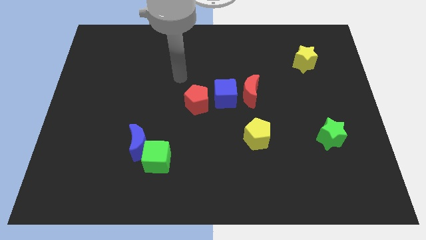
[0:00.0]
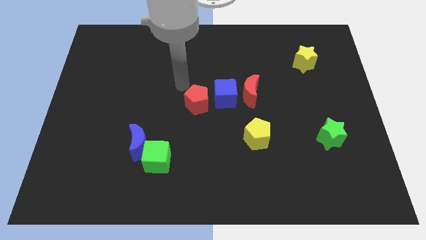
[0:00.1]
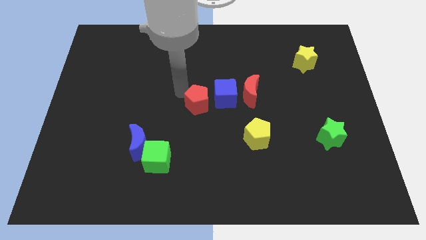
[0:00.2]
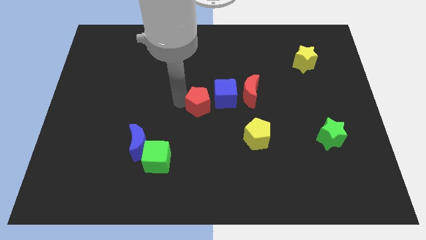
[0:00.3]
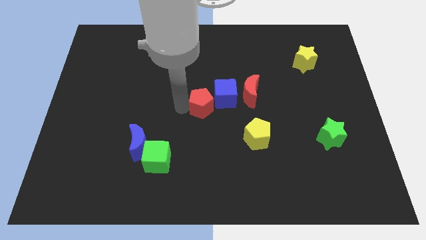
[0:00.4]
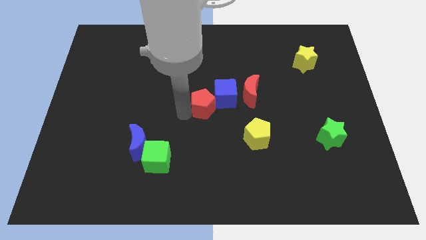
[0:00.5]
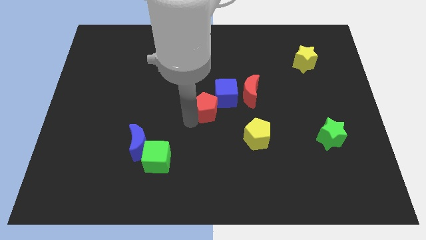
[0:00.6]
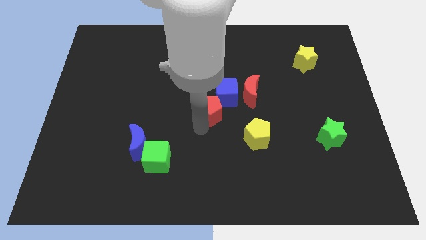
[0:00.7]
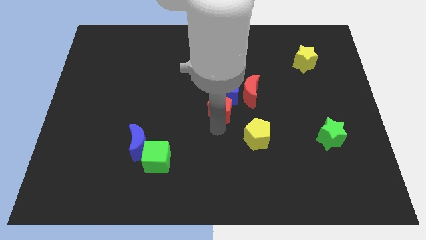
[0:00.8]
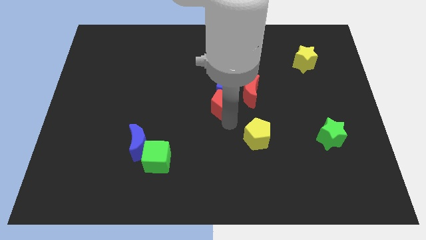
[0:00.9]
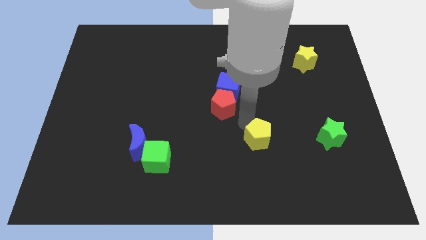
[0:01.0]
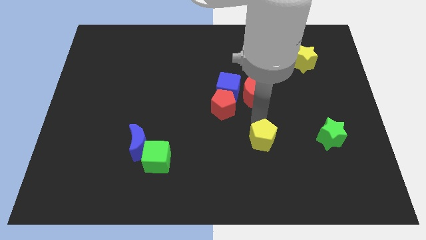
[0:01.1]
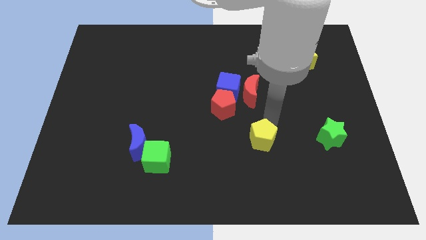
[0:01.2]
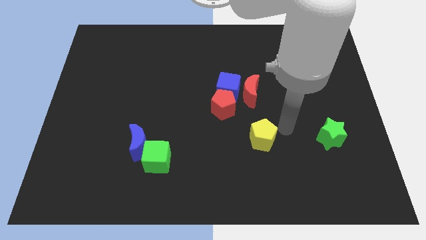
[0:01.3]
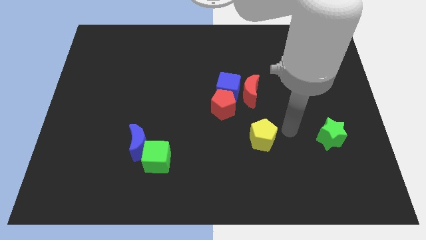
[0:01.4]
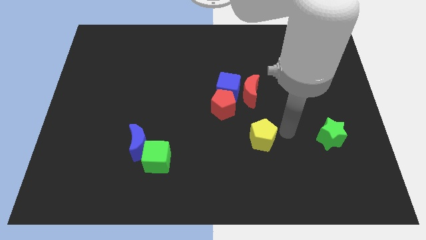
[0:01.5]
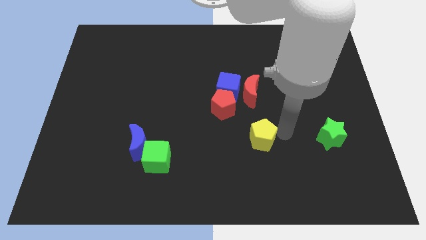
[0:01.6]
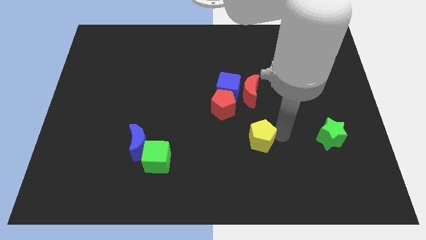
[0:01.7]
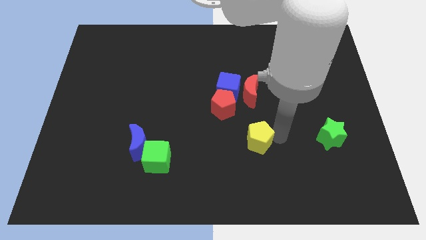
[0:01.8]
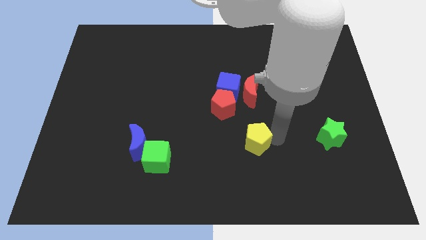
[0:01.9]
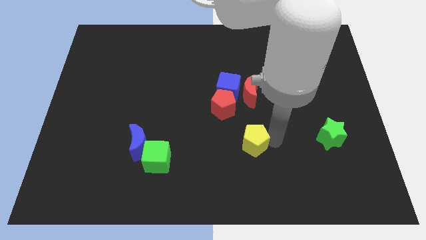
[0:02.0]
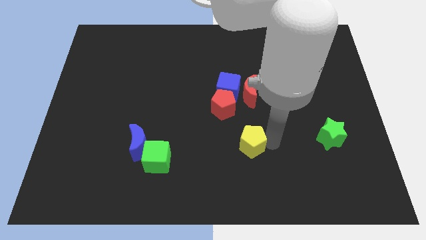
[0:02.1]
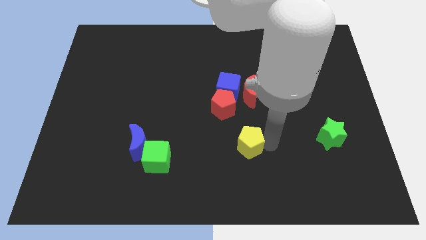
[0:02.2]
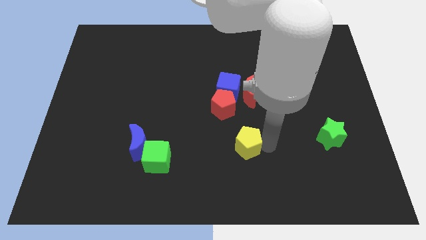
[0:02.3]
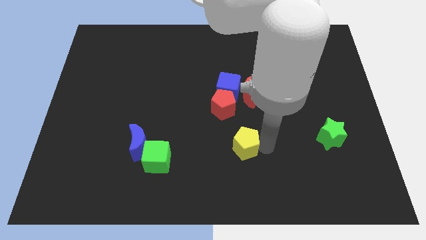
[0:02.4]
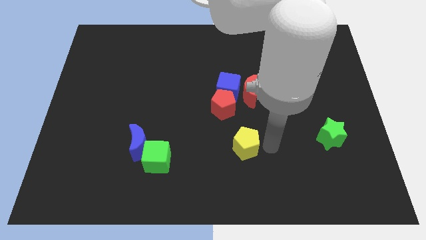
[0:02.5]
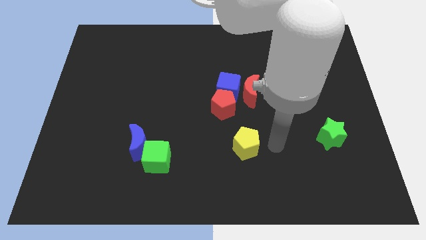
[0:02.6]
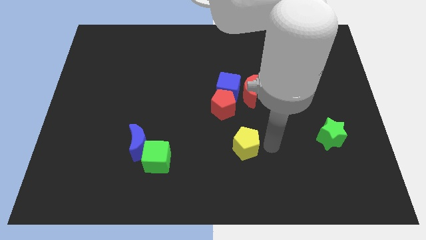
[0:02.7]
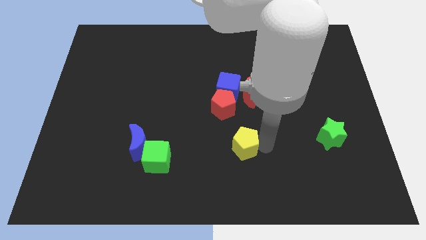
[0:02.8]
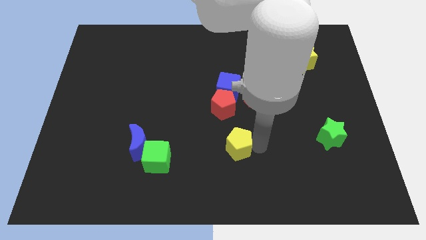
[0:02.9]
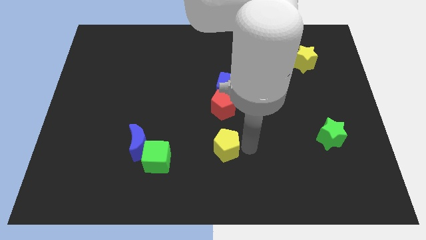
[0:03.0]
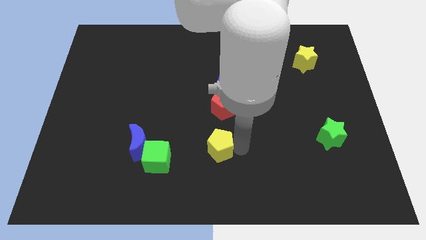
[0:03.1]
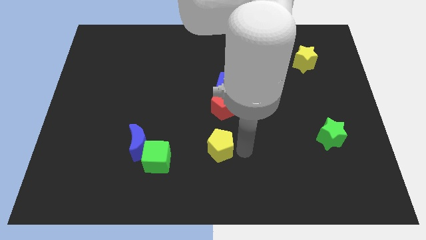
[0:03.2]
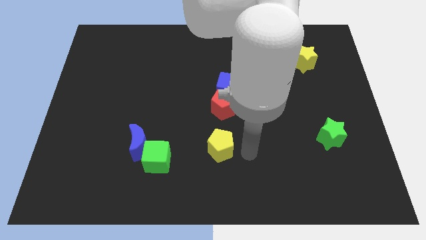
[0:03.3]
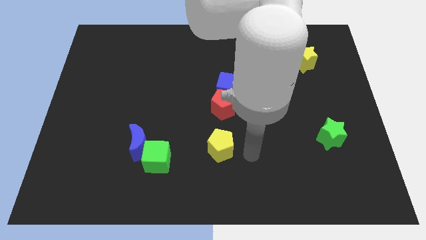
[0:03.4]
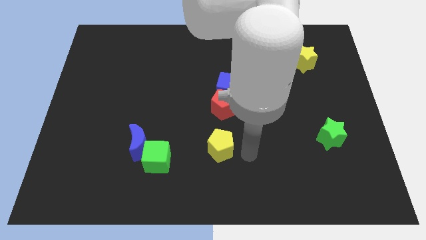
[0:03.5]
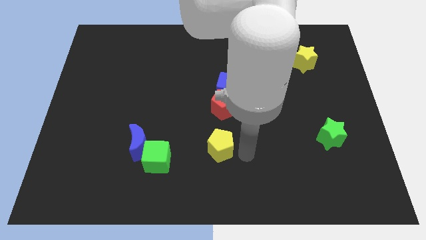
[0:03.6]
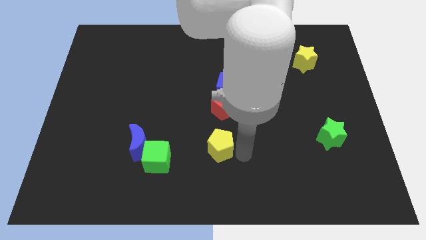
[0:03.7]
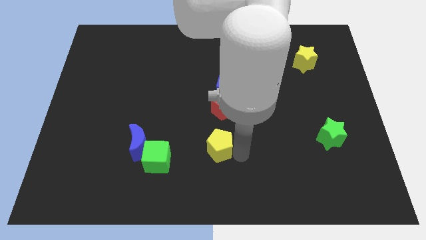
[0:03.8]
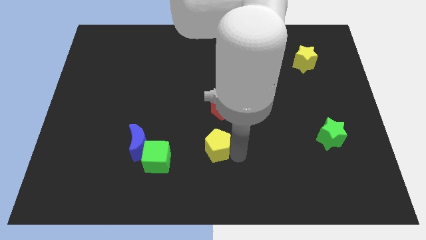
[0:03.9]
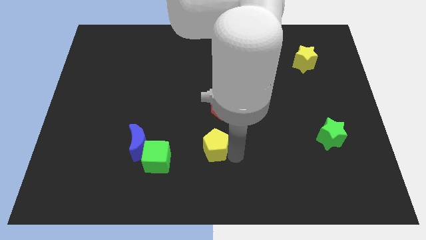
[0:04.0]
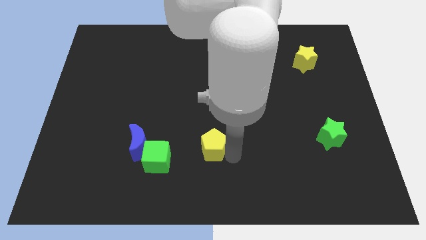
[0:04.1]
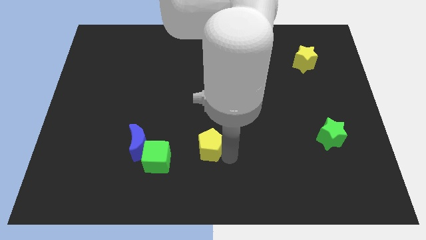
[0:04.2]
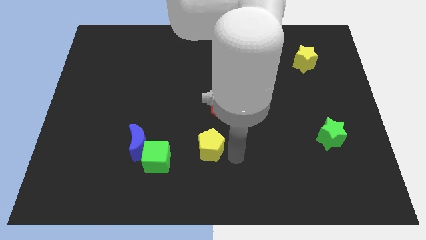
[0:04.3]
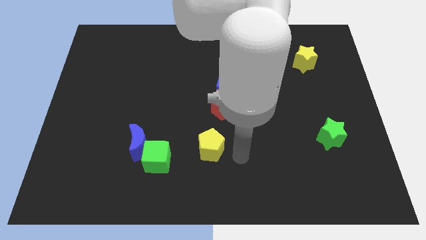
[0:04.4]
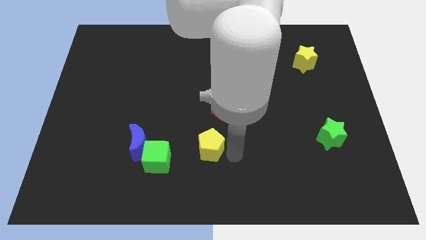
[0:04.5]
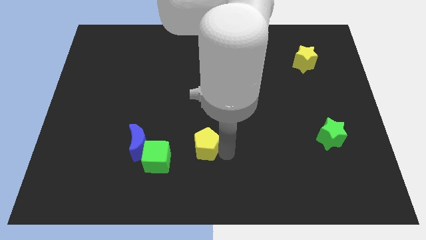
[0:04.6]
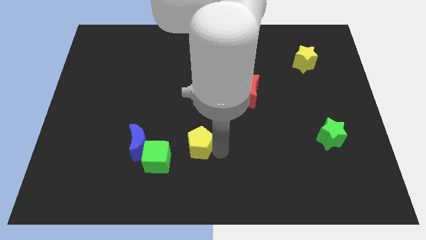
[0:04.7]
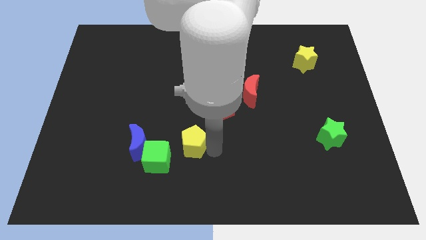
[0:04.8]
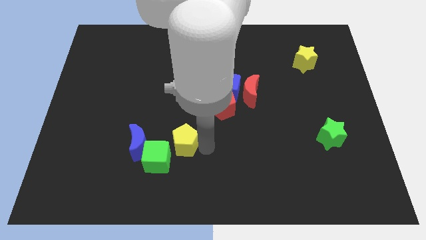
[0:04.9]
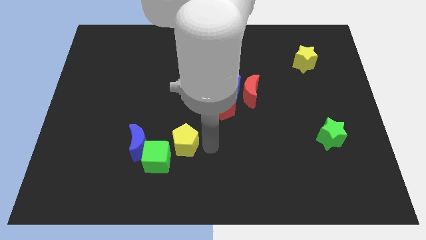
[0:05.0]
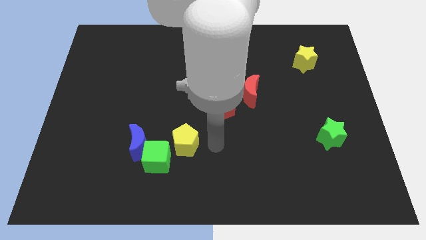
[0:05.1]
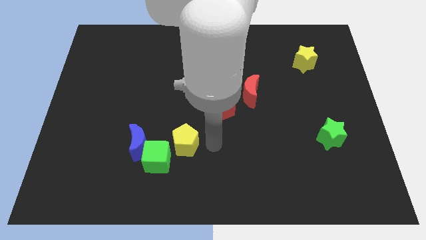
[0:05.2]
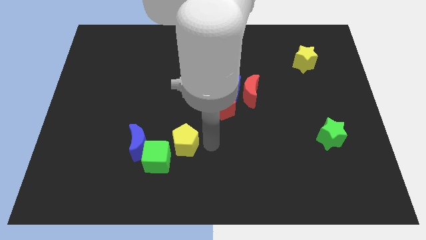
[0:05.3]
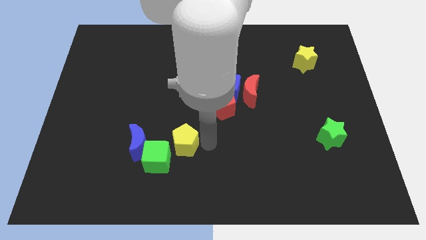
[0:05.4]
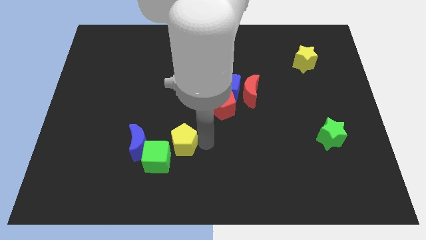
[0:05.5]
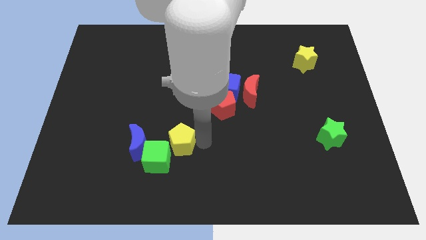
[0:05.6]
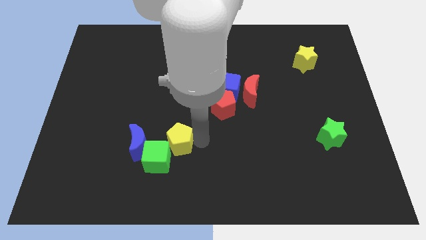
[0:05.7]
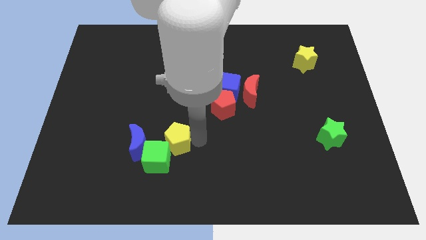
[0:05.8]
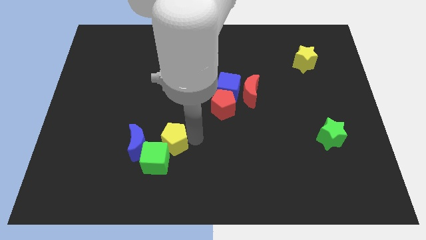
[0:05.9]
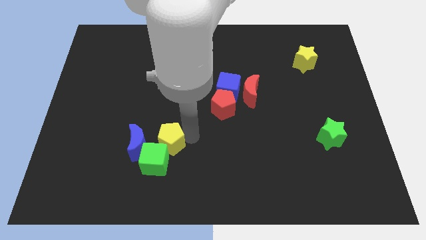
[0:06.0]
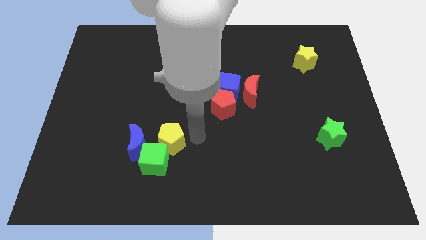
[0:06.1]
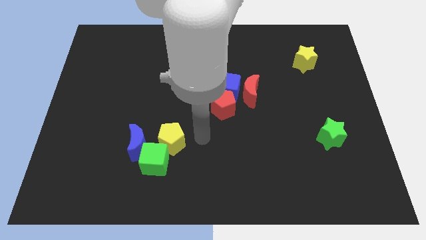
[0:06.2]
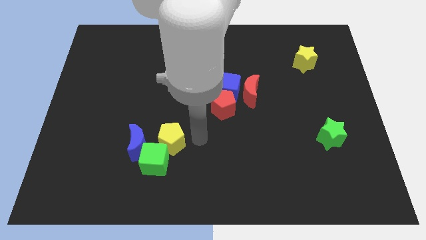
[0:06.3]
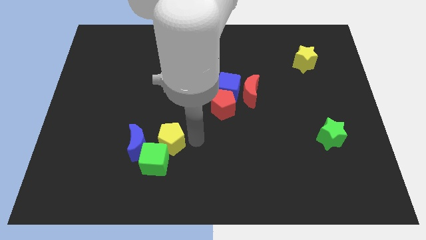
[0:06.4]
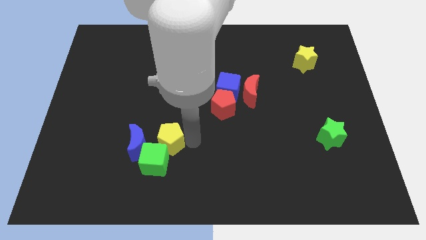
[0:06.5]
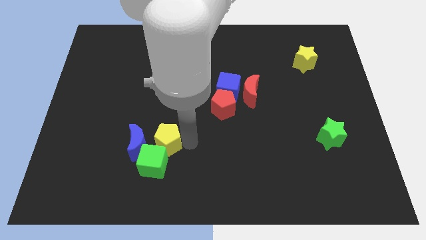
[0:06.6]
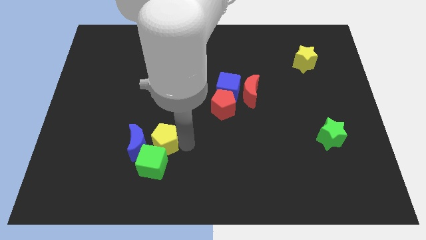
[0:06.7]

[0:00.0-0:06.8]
move the yellow pentagon towards the blue moon

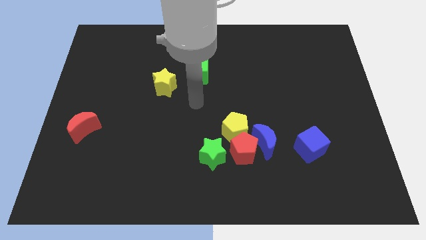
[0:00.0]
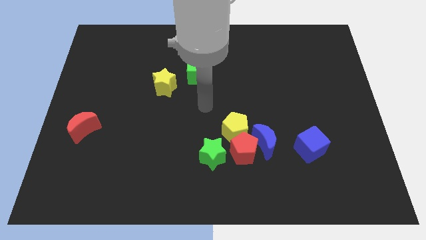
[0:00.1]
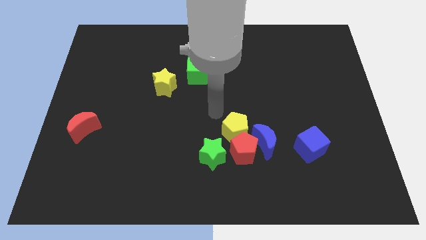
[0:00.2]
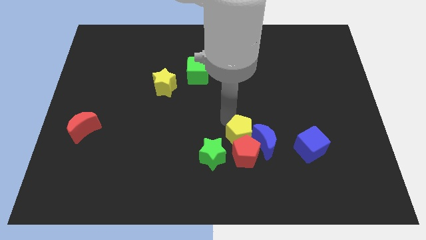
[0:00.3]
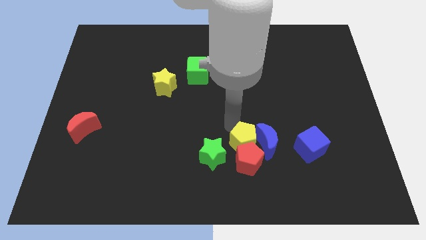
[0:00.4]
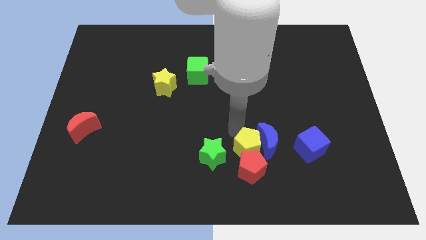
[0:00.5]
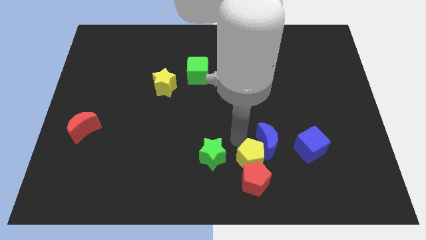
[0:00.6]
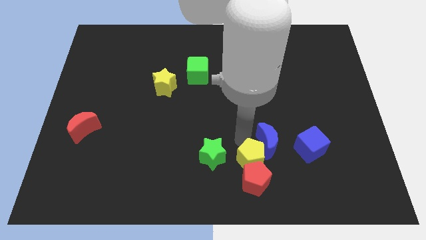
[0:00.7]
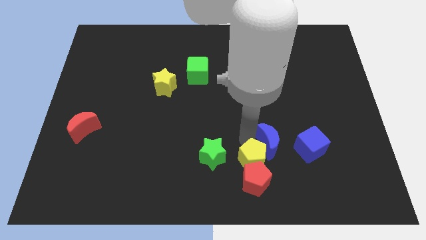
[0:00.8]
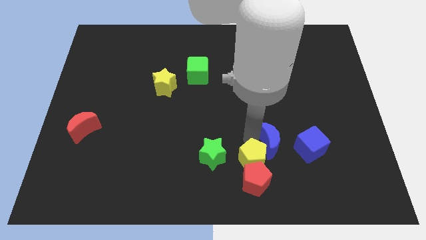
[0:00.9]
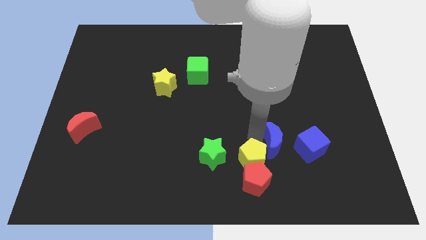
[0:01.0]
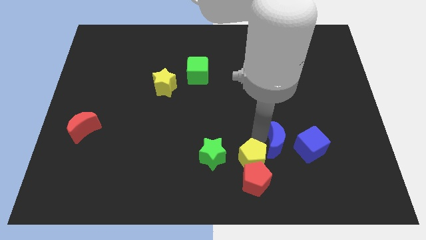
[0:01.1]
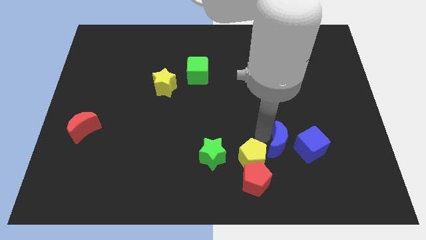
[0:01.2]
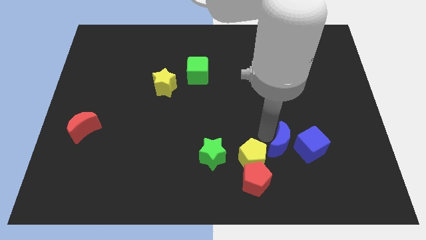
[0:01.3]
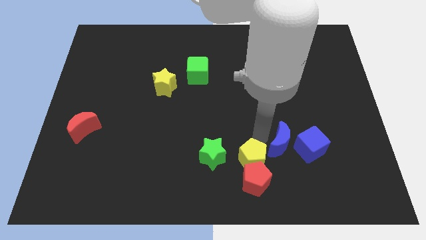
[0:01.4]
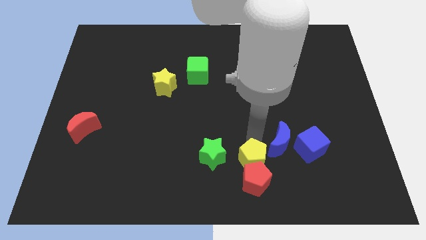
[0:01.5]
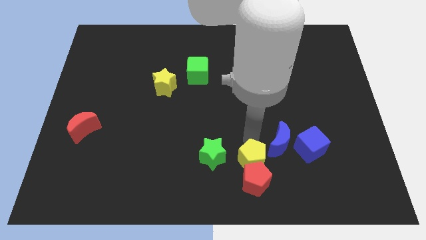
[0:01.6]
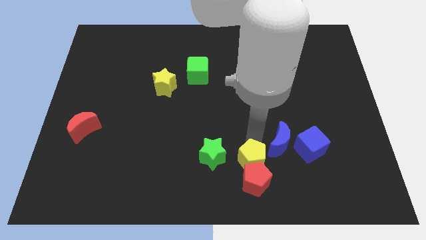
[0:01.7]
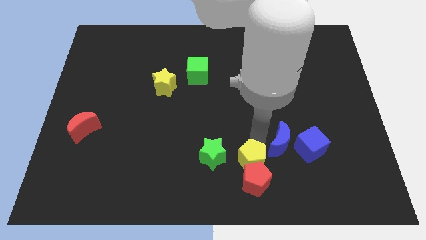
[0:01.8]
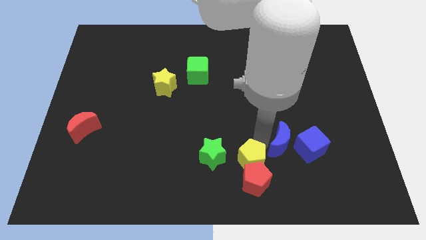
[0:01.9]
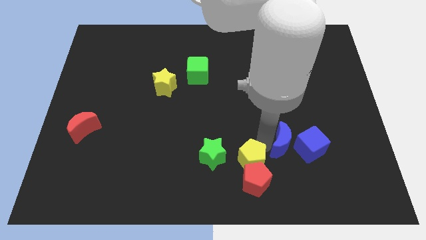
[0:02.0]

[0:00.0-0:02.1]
move the blue moon to the blue cube
